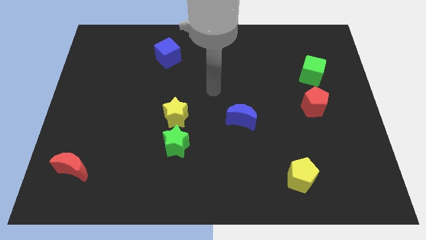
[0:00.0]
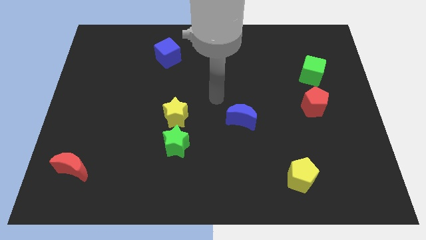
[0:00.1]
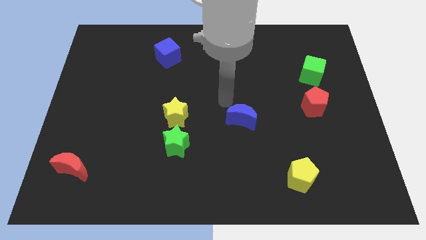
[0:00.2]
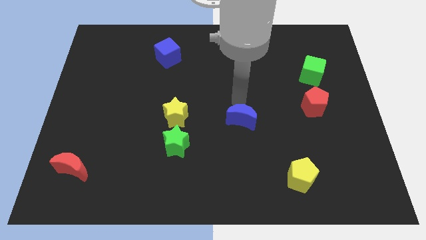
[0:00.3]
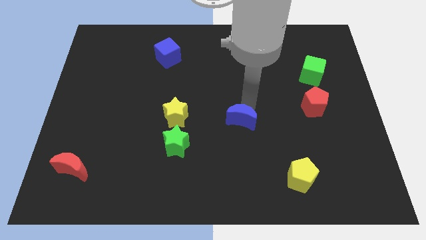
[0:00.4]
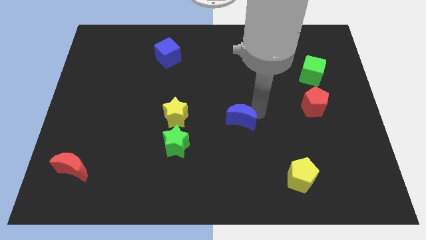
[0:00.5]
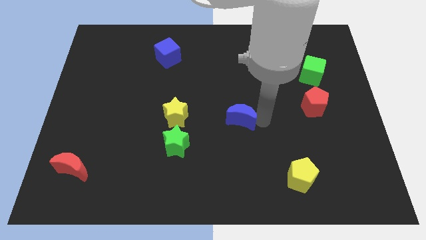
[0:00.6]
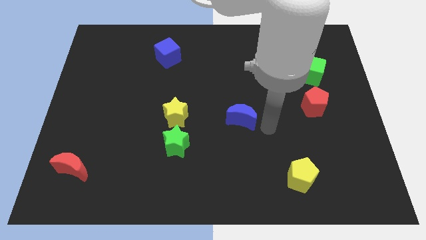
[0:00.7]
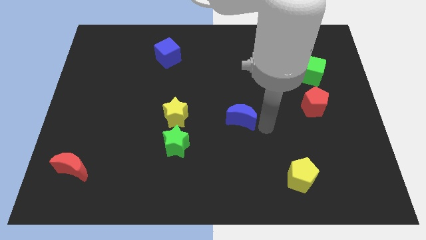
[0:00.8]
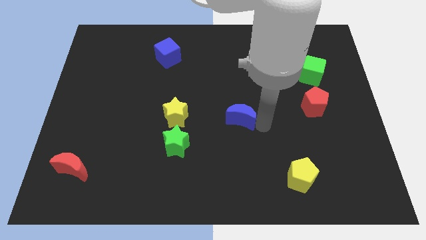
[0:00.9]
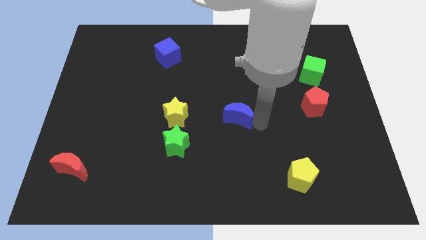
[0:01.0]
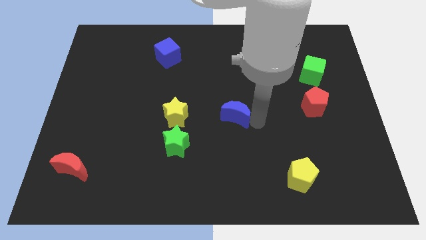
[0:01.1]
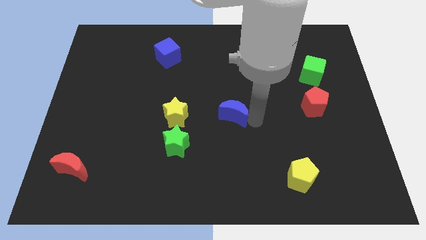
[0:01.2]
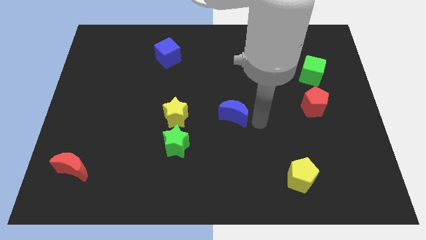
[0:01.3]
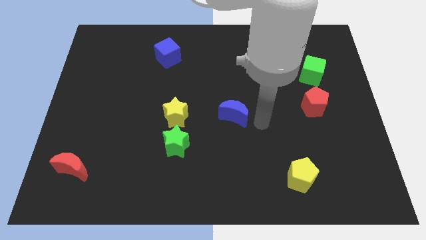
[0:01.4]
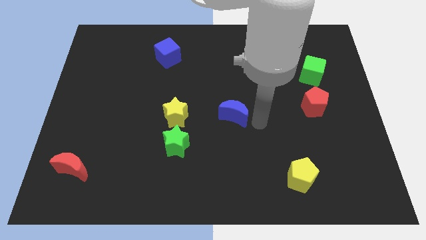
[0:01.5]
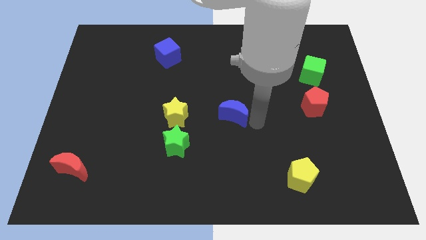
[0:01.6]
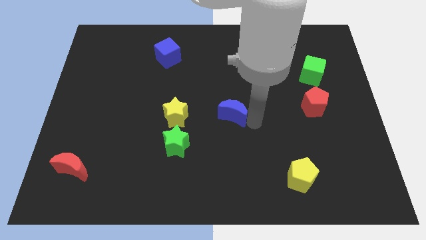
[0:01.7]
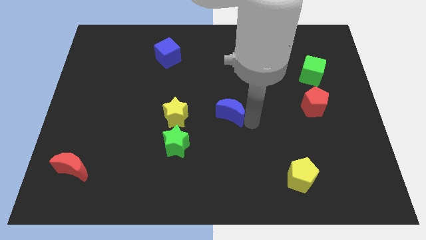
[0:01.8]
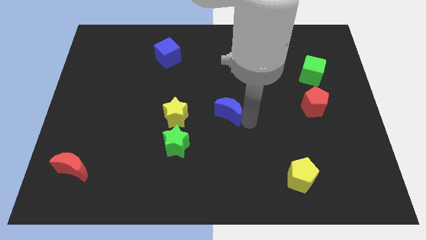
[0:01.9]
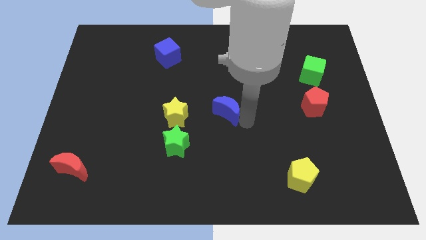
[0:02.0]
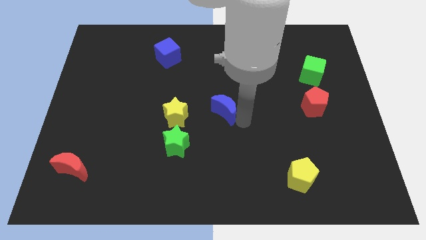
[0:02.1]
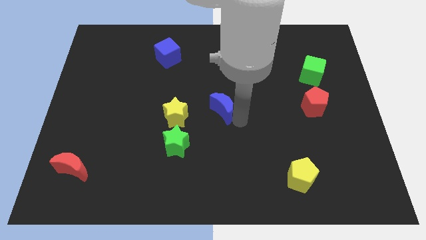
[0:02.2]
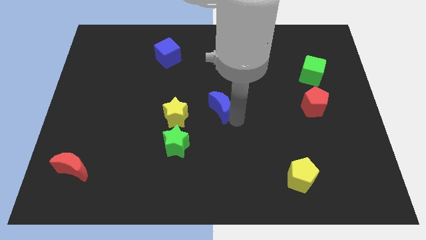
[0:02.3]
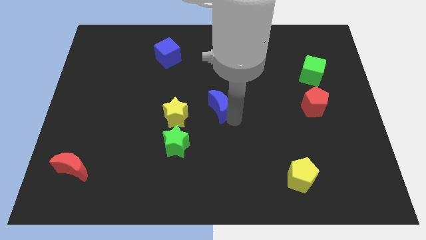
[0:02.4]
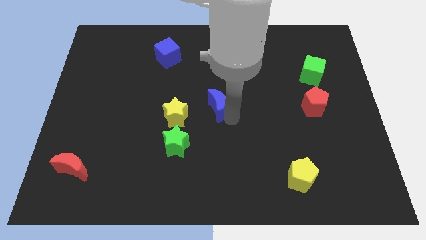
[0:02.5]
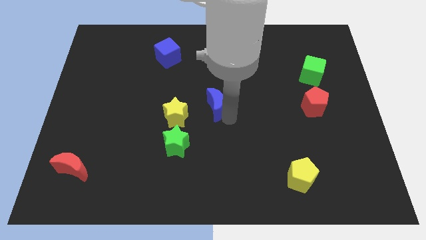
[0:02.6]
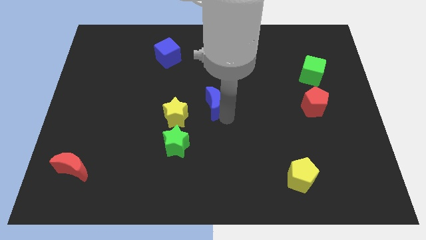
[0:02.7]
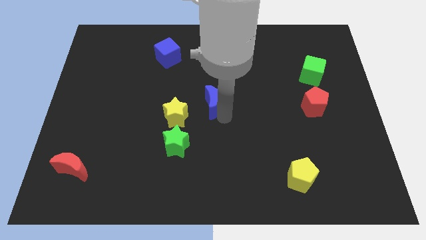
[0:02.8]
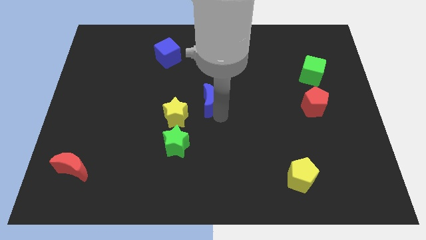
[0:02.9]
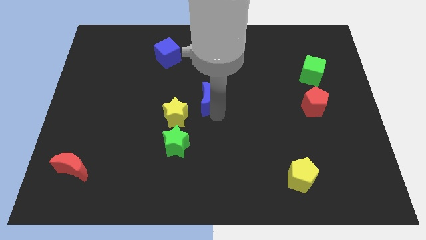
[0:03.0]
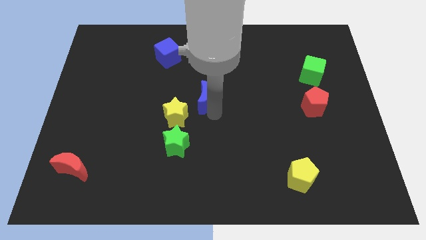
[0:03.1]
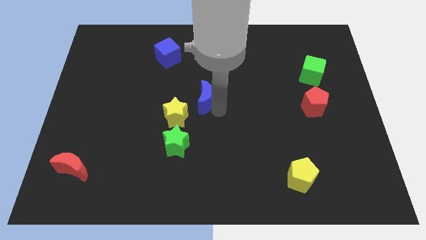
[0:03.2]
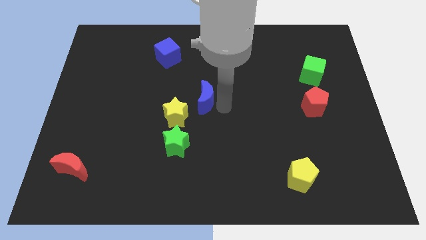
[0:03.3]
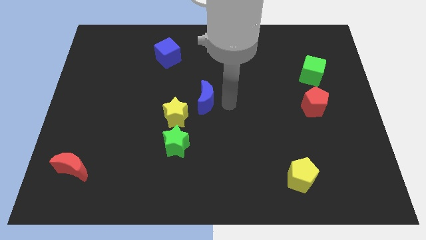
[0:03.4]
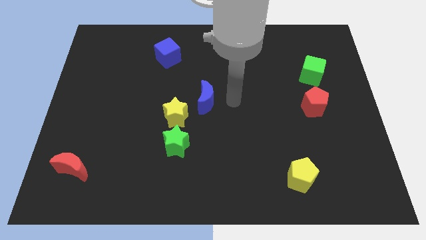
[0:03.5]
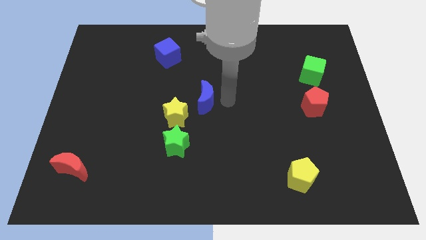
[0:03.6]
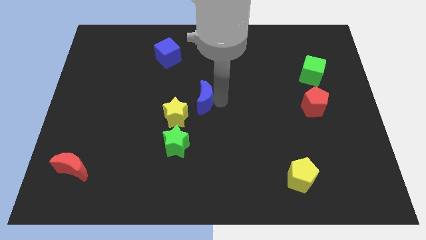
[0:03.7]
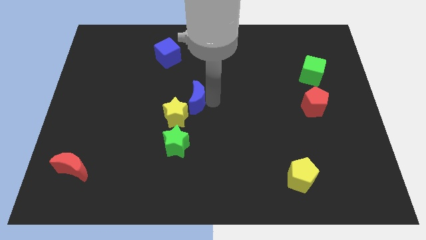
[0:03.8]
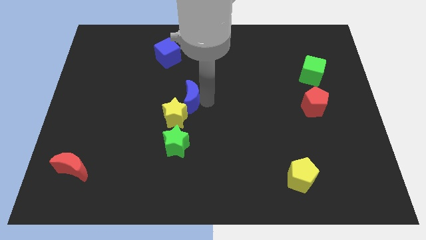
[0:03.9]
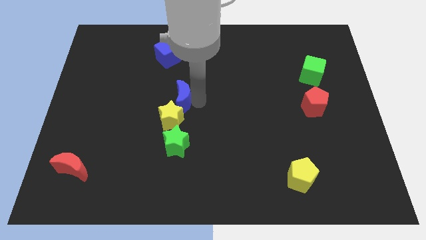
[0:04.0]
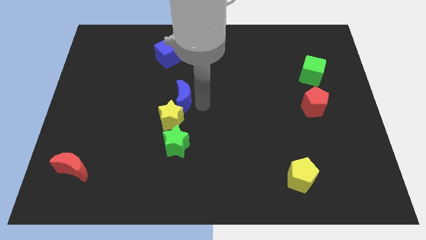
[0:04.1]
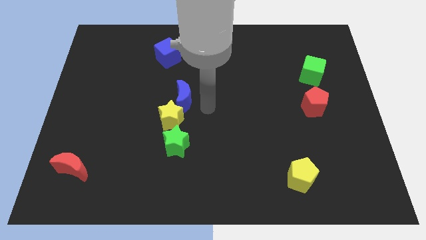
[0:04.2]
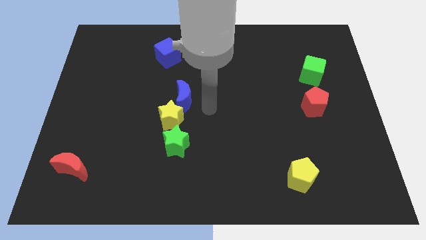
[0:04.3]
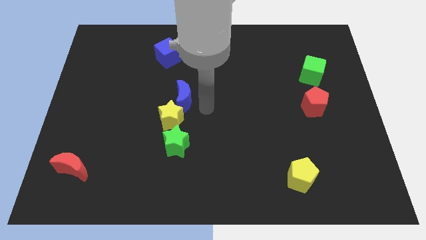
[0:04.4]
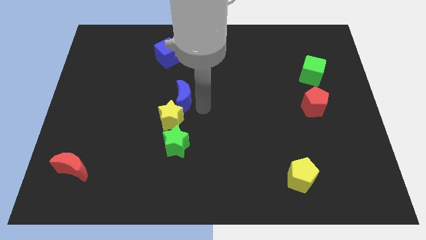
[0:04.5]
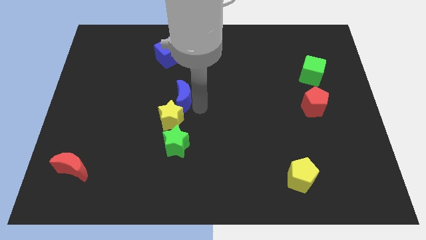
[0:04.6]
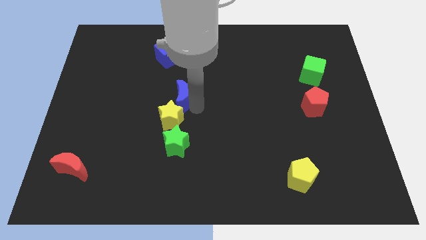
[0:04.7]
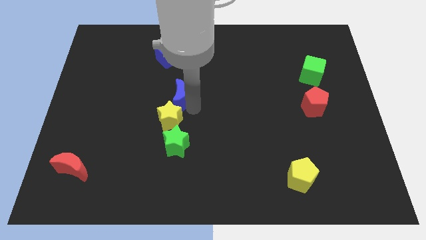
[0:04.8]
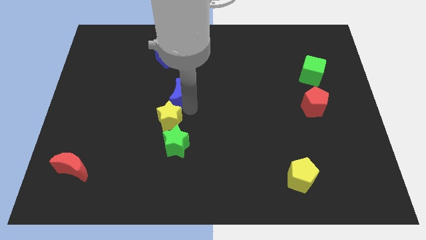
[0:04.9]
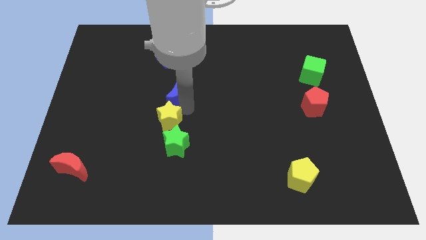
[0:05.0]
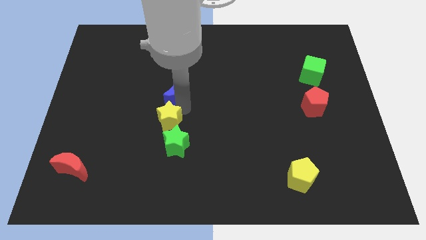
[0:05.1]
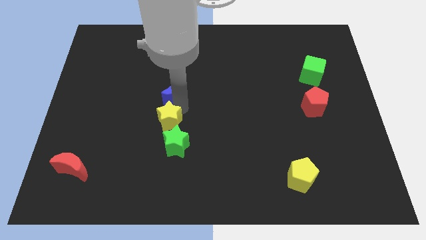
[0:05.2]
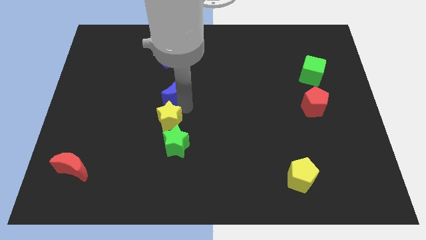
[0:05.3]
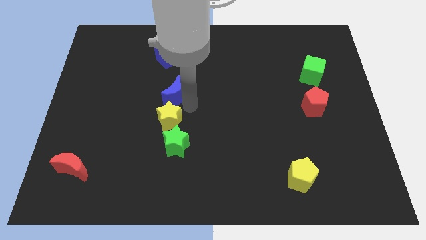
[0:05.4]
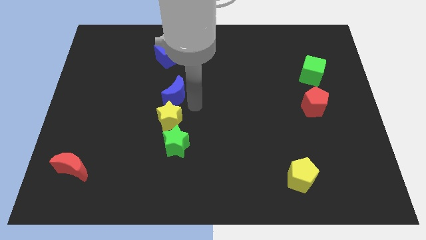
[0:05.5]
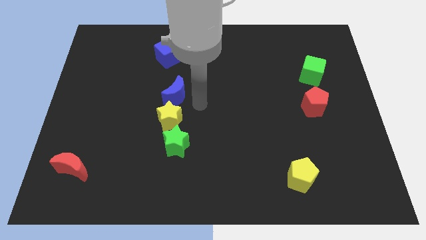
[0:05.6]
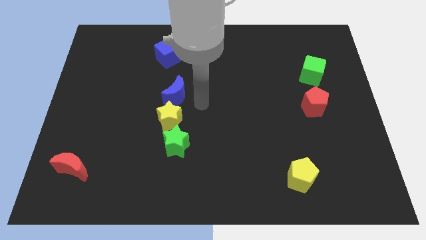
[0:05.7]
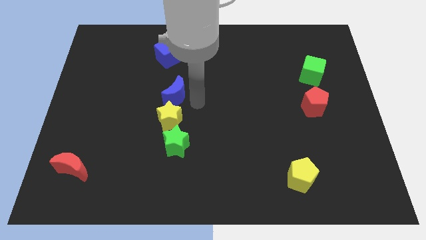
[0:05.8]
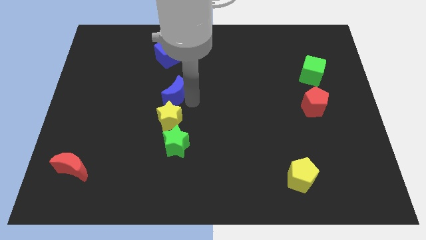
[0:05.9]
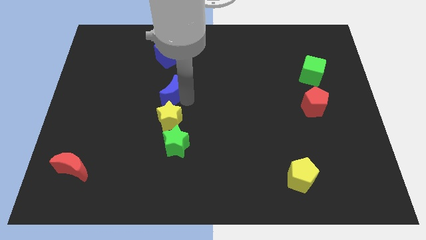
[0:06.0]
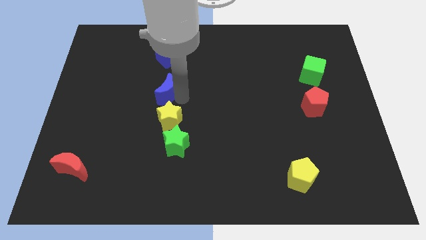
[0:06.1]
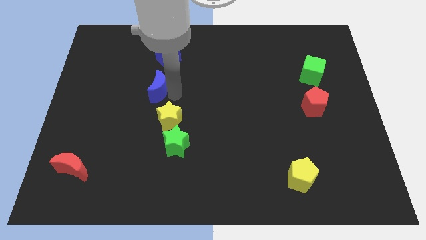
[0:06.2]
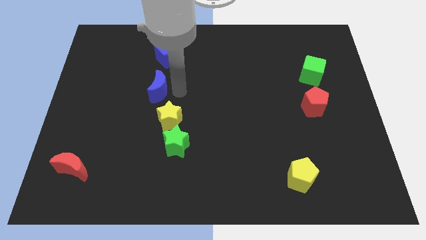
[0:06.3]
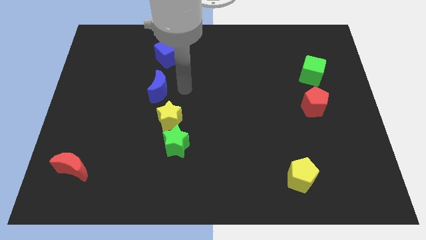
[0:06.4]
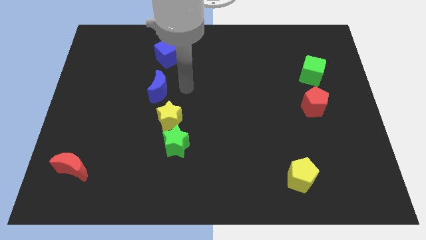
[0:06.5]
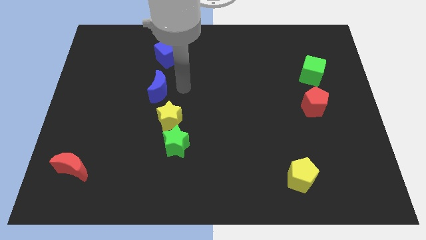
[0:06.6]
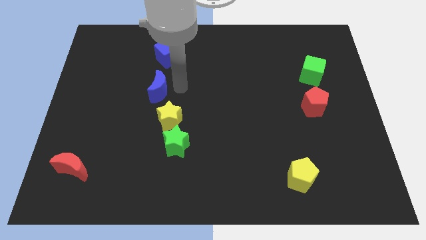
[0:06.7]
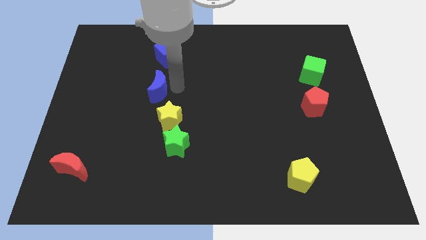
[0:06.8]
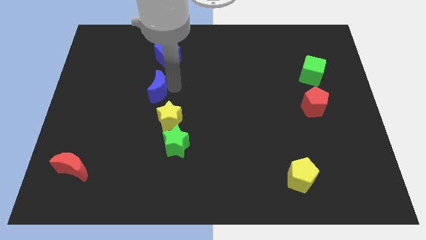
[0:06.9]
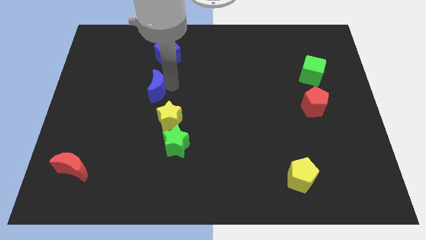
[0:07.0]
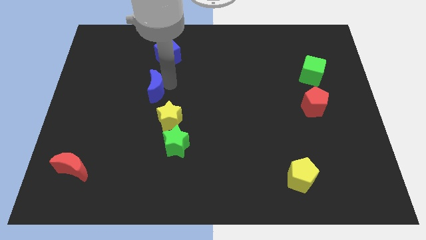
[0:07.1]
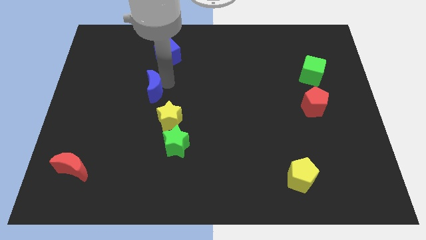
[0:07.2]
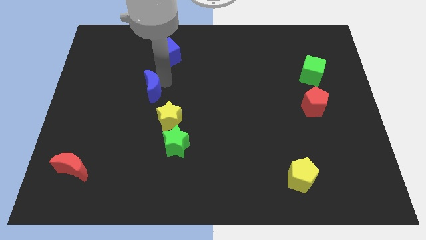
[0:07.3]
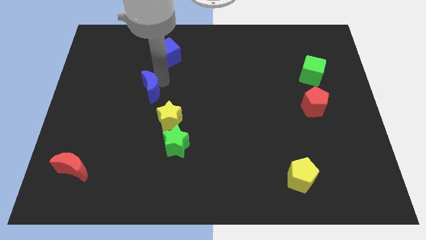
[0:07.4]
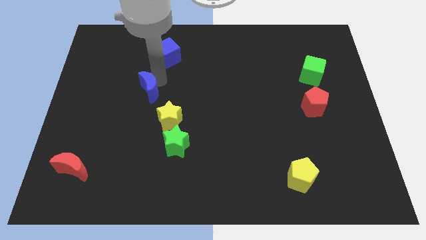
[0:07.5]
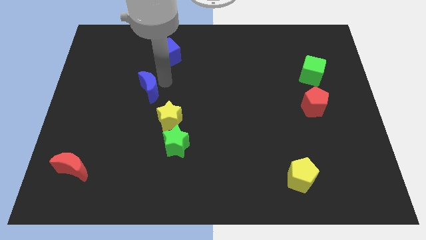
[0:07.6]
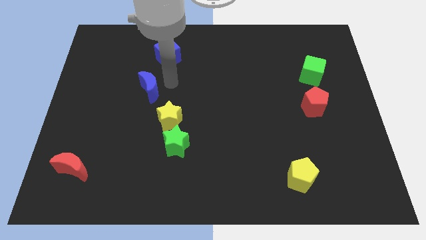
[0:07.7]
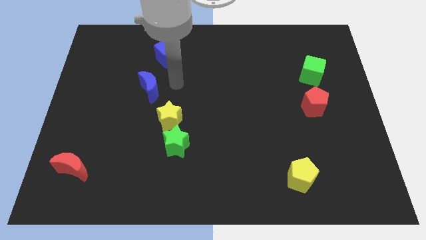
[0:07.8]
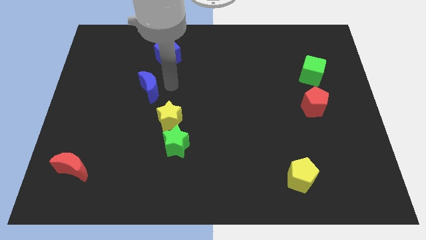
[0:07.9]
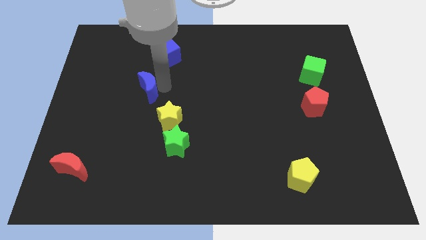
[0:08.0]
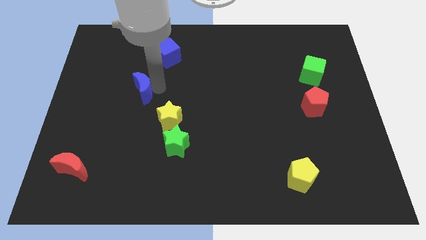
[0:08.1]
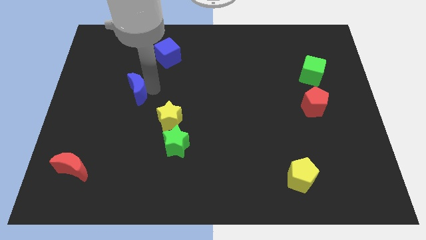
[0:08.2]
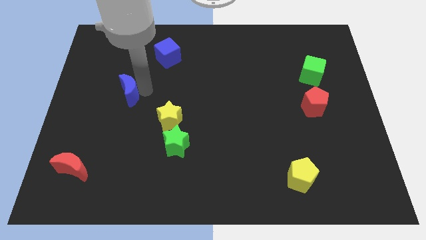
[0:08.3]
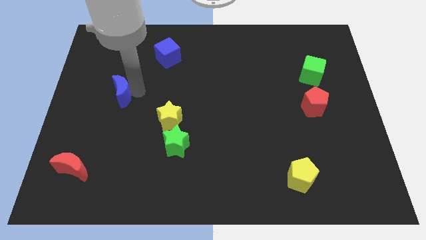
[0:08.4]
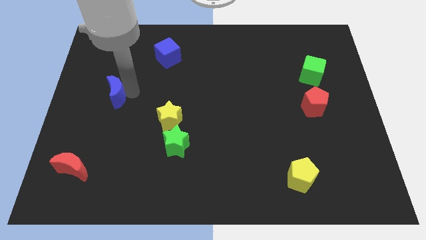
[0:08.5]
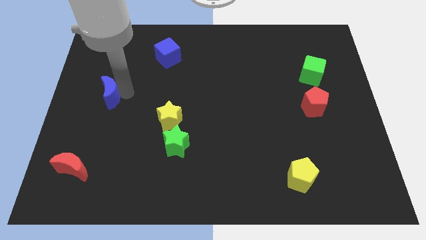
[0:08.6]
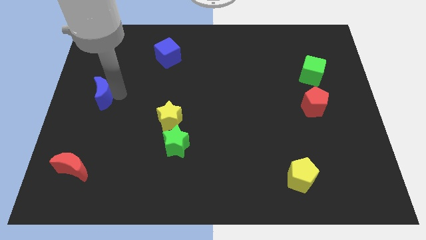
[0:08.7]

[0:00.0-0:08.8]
put the blue moon to the left side
